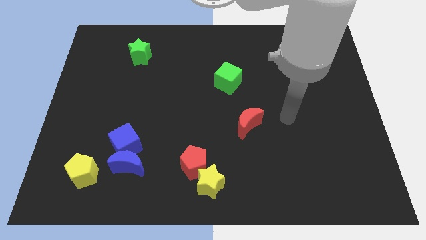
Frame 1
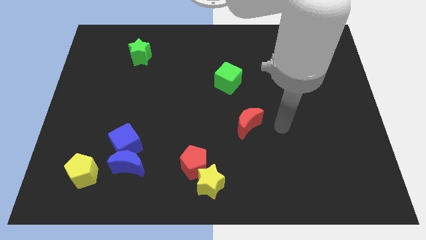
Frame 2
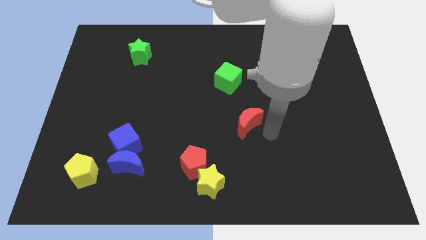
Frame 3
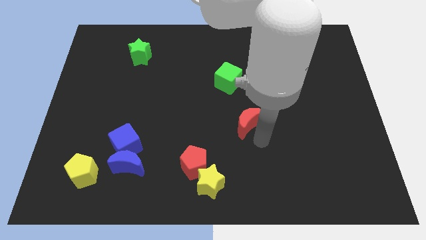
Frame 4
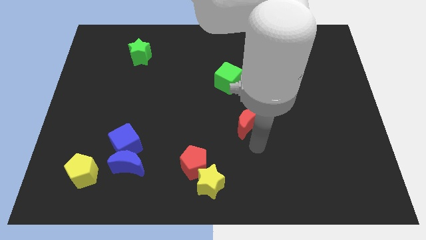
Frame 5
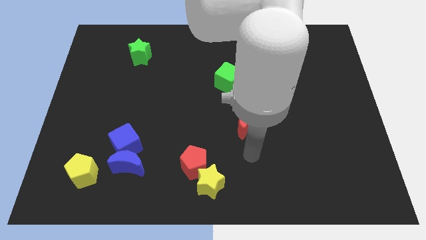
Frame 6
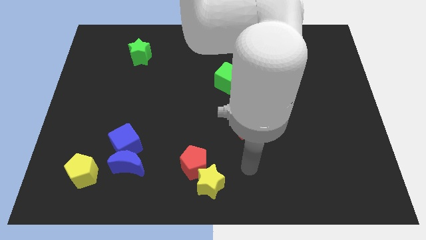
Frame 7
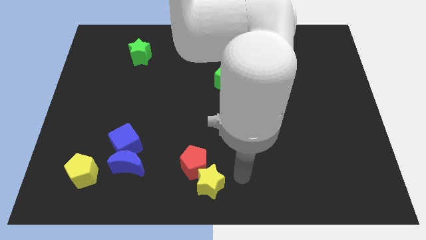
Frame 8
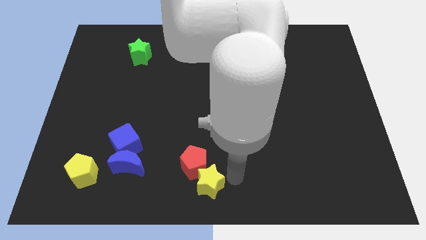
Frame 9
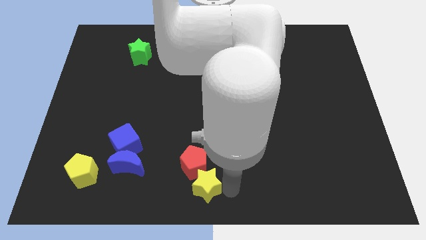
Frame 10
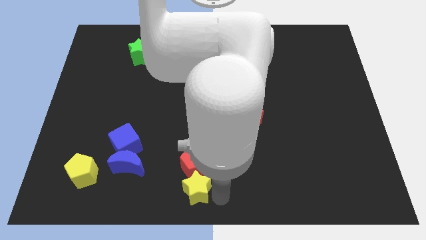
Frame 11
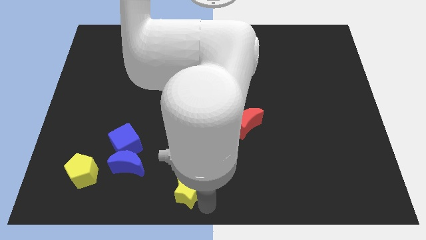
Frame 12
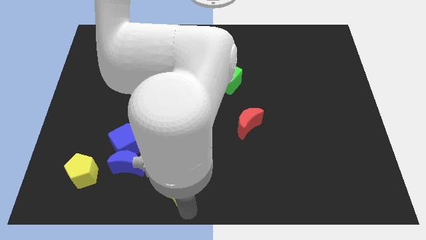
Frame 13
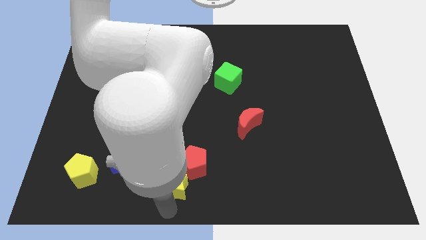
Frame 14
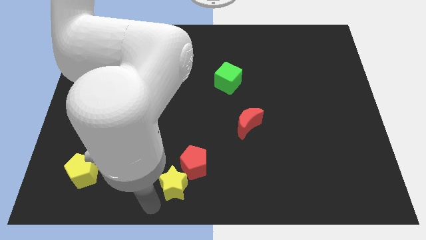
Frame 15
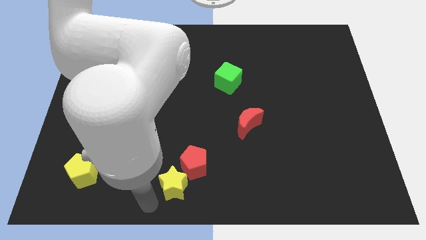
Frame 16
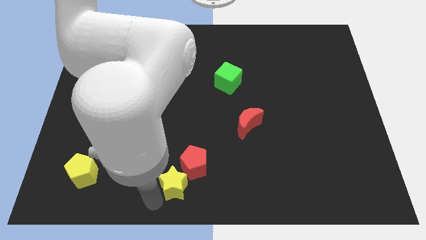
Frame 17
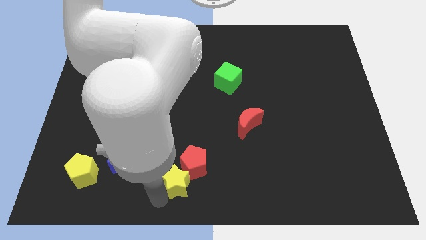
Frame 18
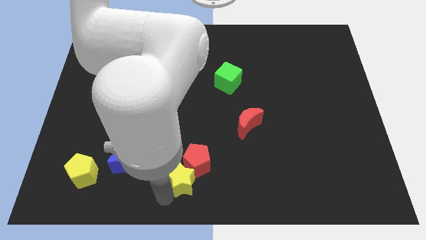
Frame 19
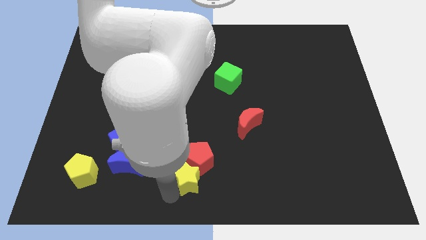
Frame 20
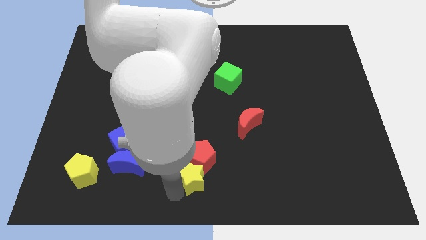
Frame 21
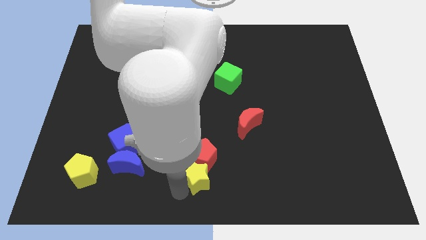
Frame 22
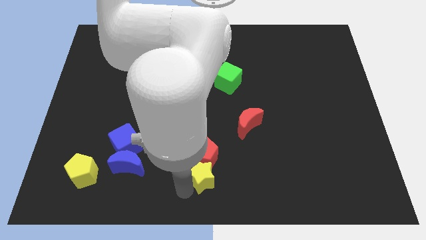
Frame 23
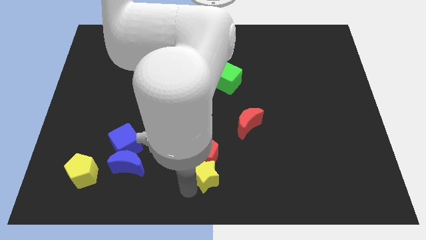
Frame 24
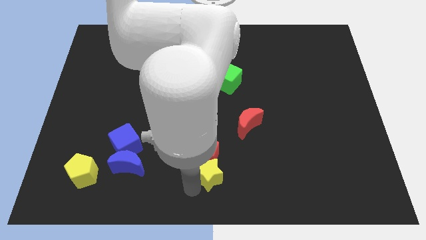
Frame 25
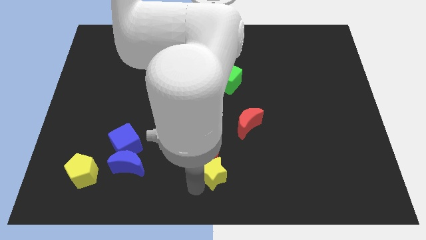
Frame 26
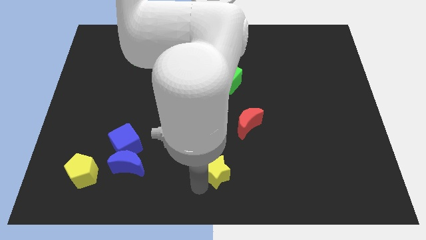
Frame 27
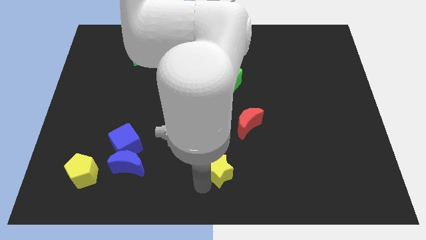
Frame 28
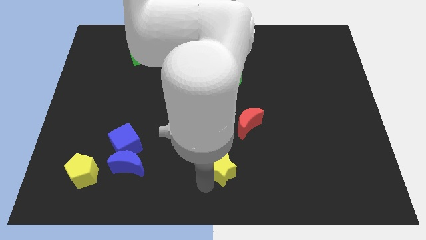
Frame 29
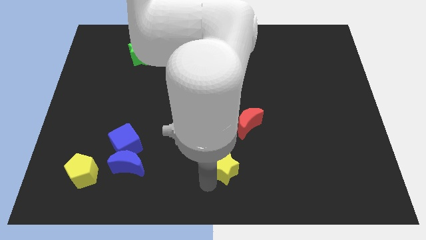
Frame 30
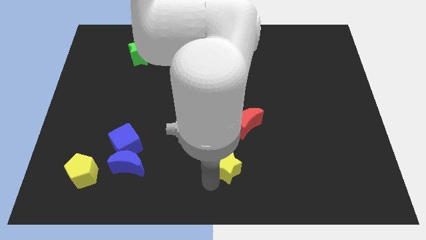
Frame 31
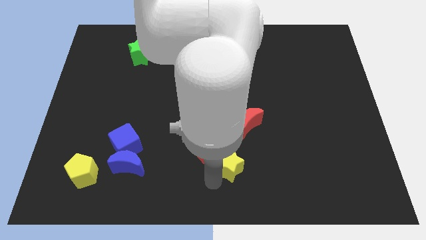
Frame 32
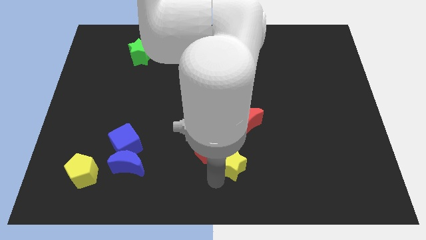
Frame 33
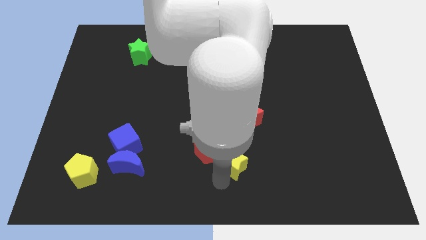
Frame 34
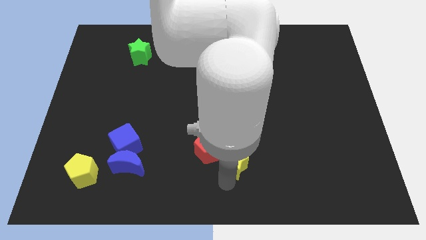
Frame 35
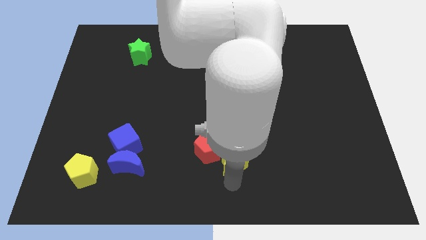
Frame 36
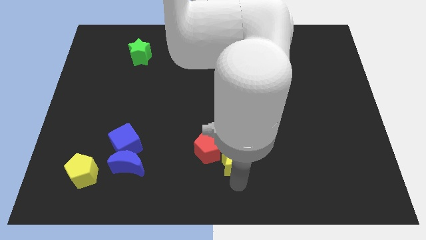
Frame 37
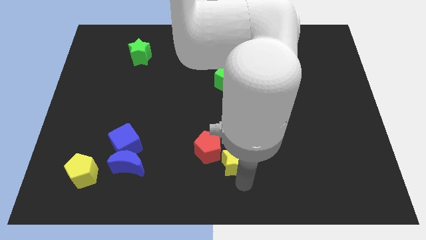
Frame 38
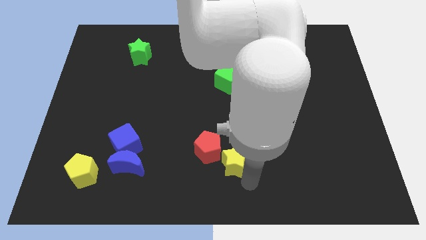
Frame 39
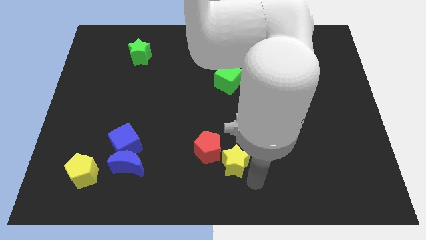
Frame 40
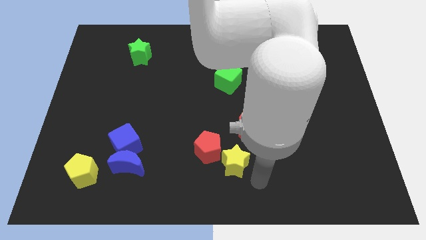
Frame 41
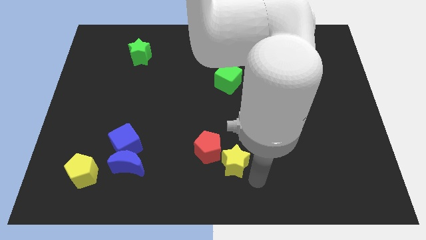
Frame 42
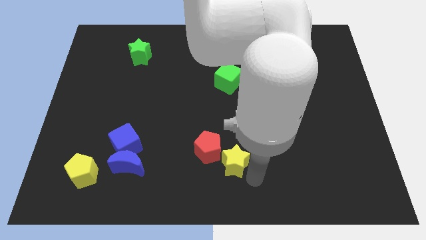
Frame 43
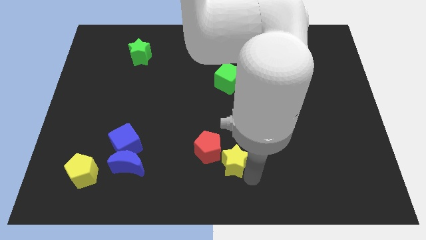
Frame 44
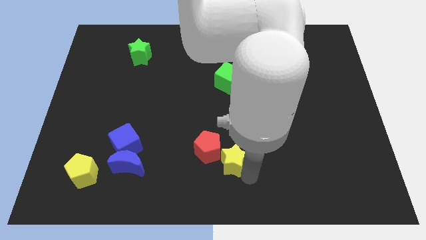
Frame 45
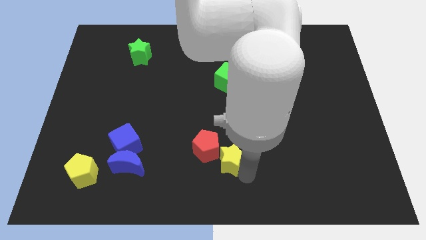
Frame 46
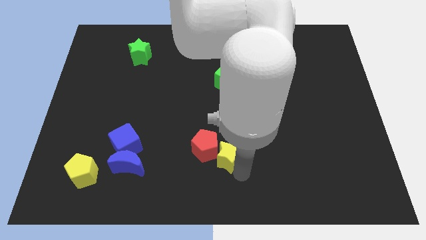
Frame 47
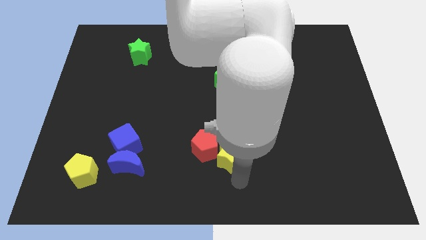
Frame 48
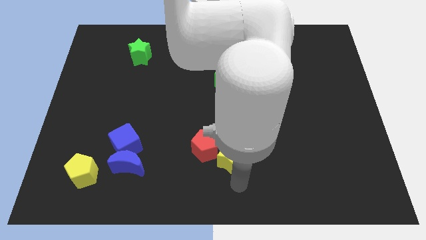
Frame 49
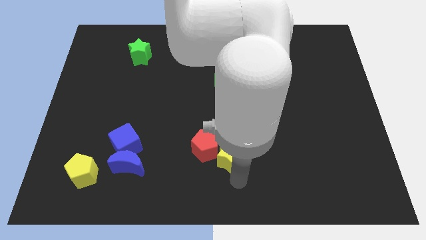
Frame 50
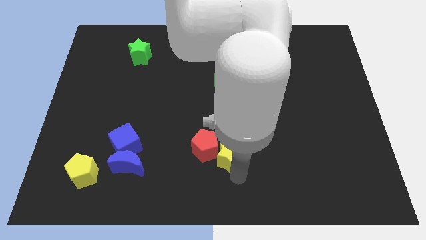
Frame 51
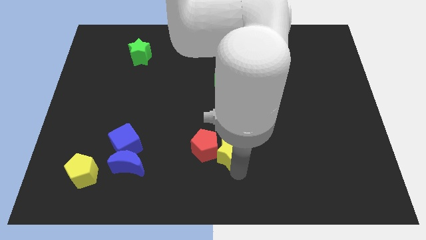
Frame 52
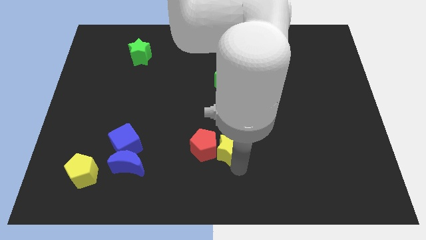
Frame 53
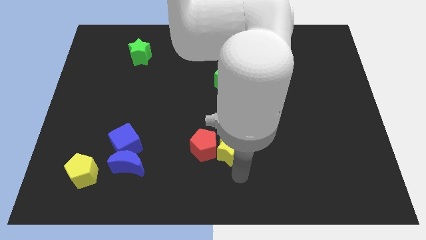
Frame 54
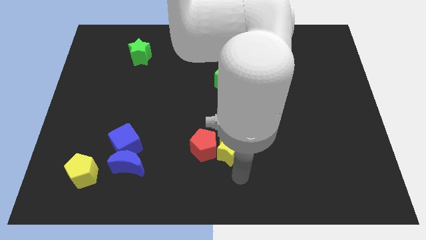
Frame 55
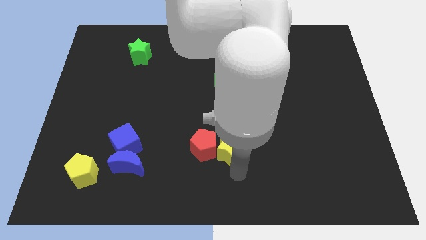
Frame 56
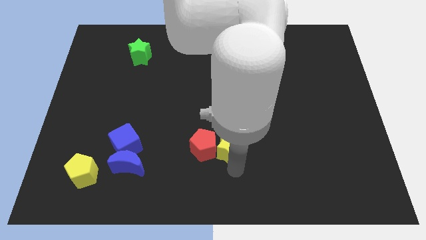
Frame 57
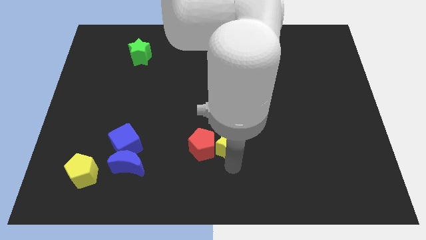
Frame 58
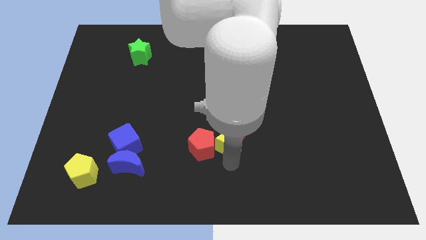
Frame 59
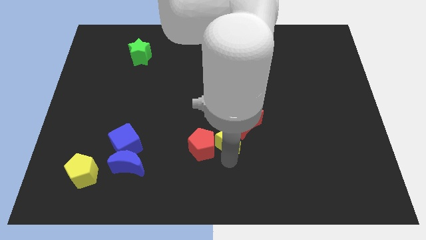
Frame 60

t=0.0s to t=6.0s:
slide the yellow star to the center of the board

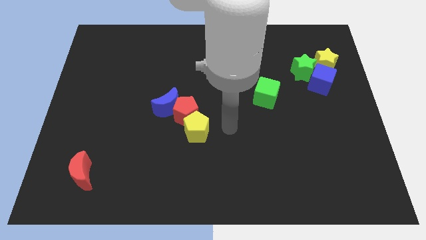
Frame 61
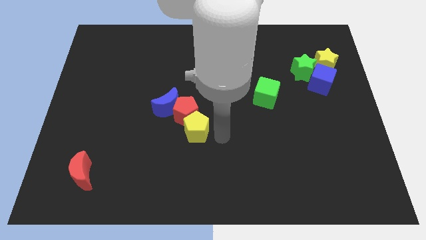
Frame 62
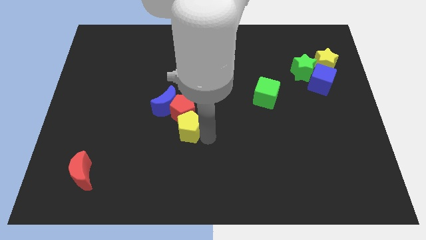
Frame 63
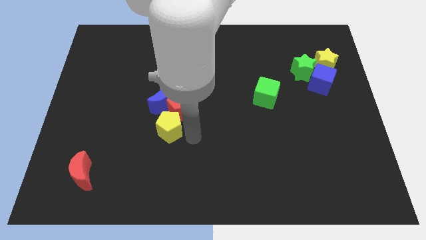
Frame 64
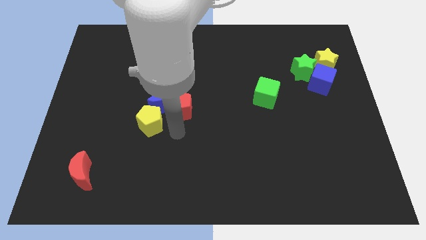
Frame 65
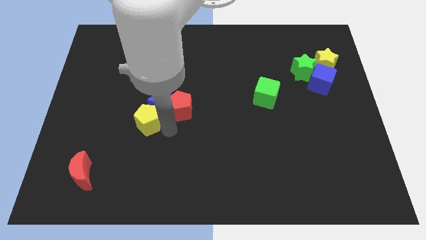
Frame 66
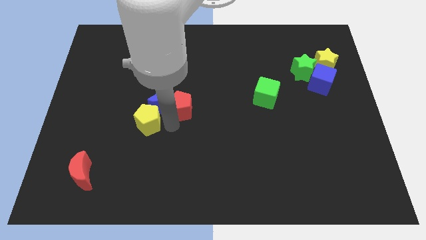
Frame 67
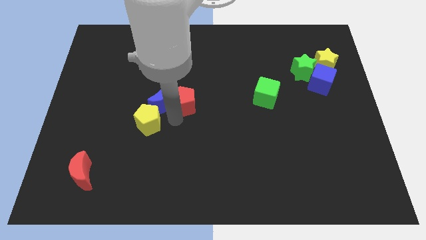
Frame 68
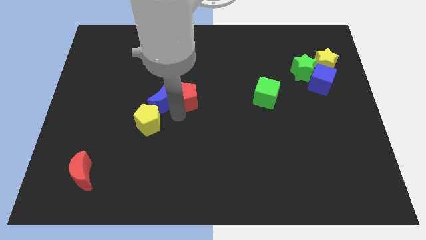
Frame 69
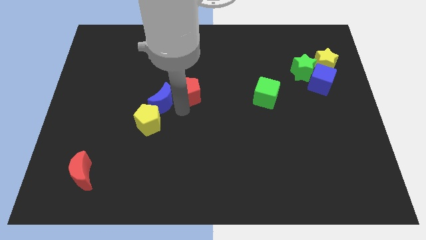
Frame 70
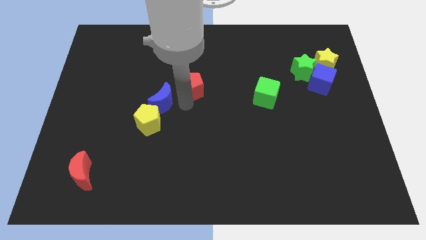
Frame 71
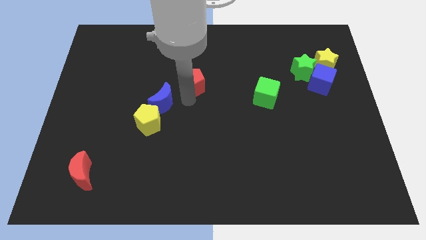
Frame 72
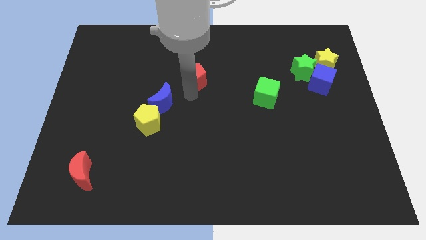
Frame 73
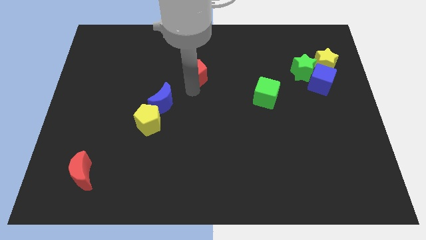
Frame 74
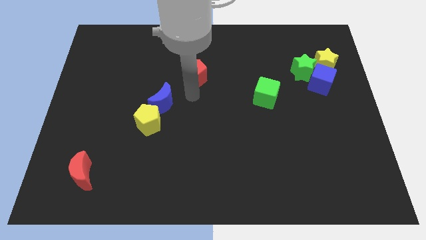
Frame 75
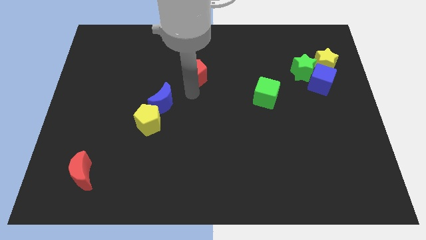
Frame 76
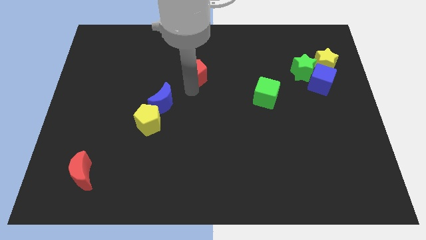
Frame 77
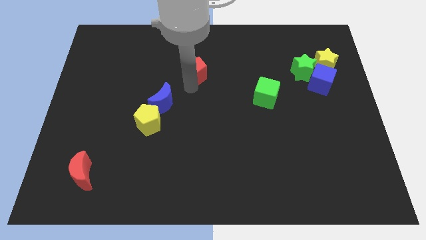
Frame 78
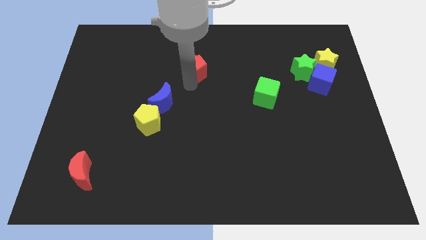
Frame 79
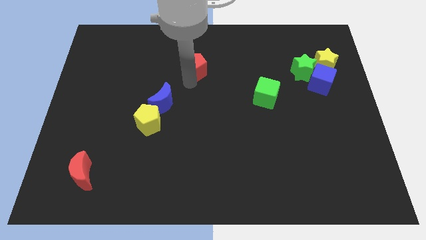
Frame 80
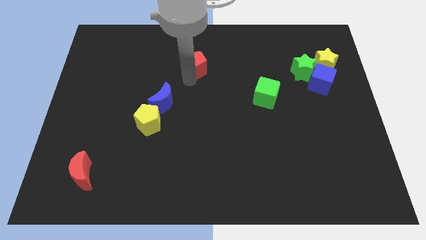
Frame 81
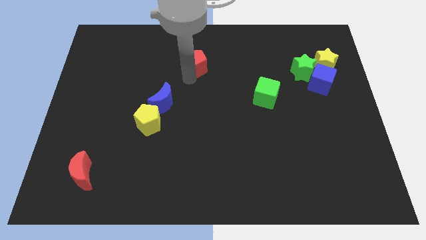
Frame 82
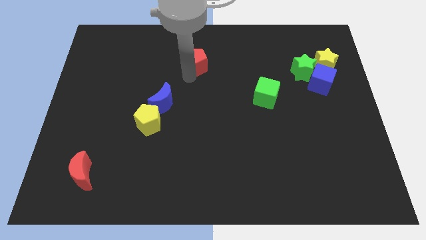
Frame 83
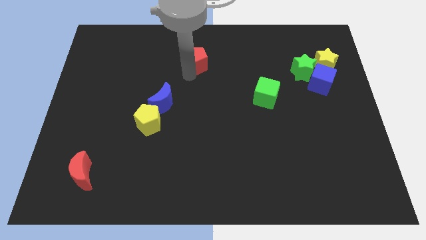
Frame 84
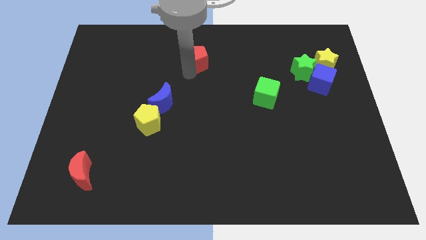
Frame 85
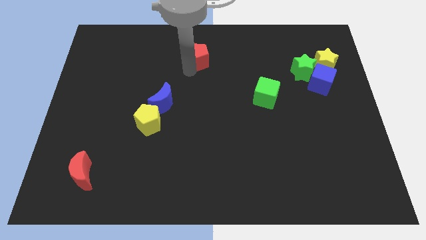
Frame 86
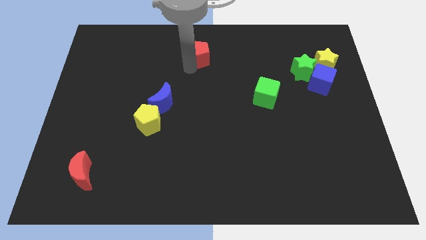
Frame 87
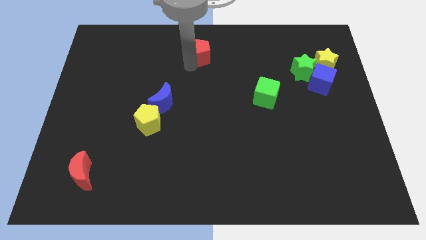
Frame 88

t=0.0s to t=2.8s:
move the red pentagon to the towards your base
